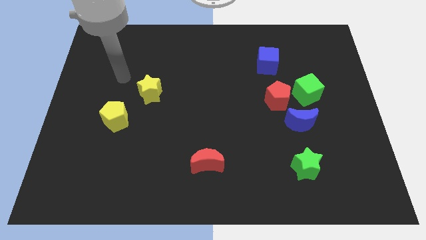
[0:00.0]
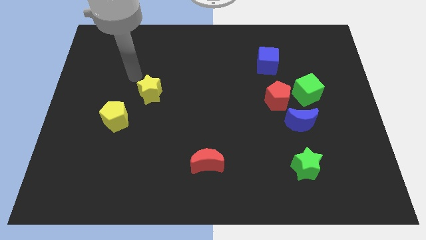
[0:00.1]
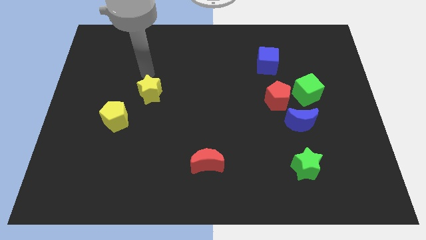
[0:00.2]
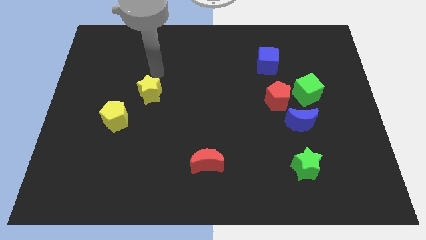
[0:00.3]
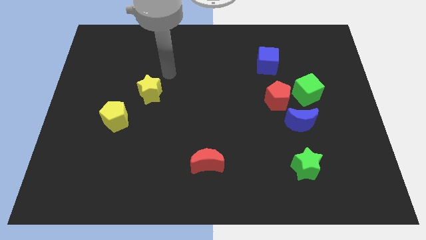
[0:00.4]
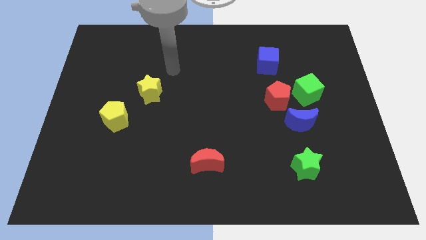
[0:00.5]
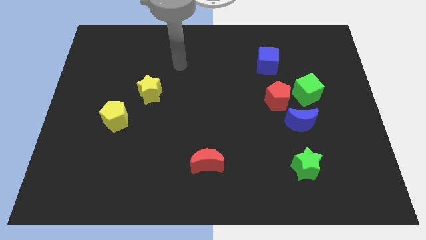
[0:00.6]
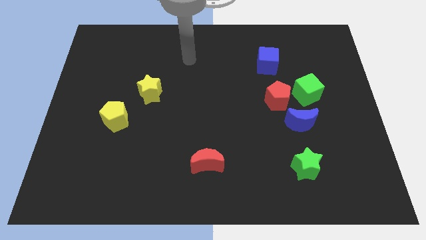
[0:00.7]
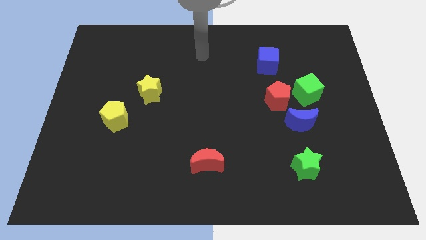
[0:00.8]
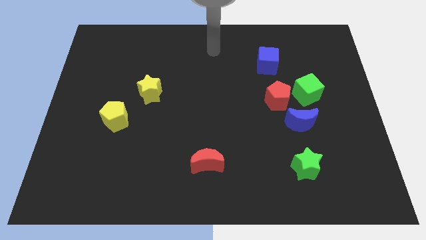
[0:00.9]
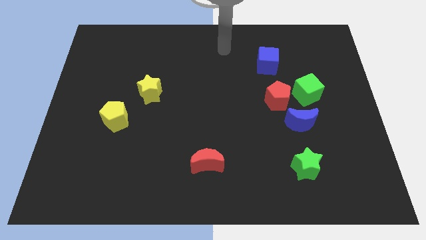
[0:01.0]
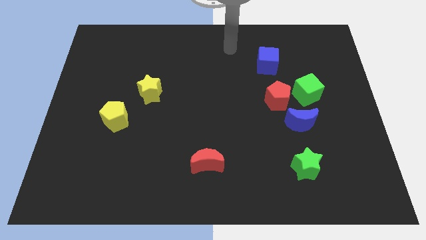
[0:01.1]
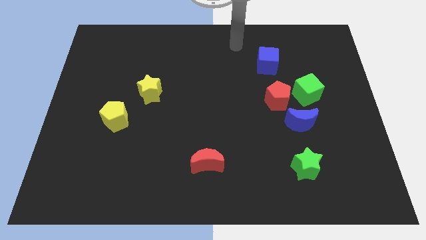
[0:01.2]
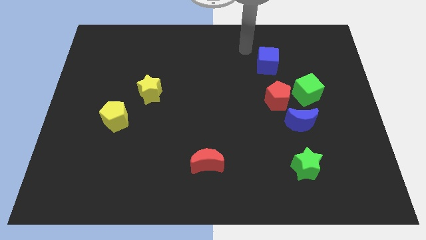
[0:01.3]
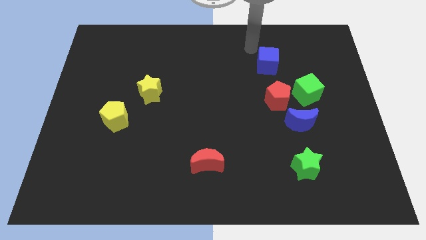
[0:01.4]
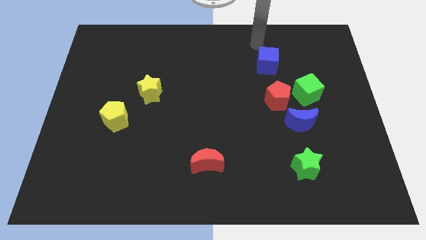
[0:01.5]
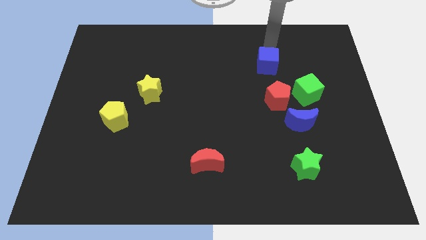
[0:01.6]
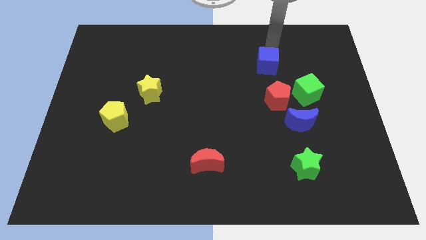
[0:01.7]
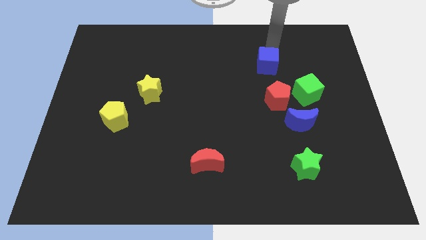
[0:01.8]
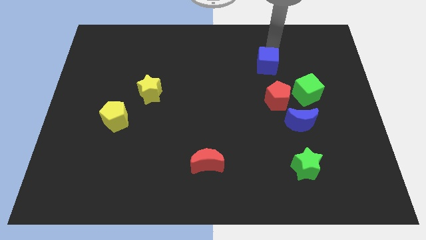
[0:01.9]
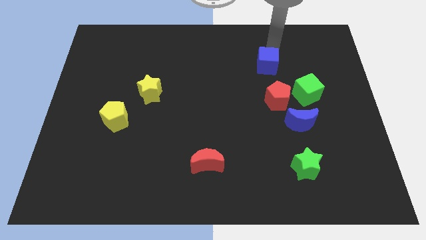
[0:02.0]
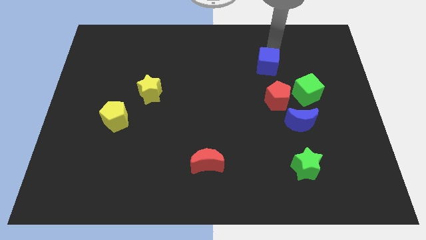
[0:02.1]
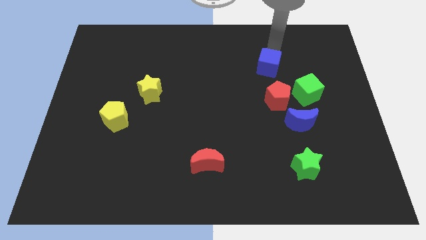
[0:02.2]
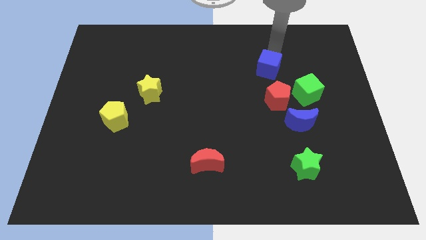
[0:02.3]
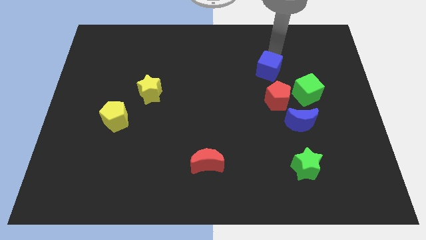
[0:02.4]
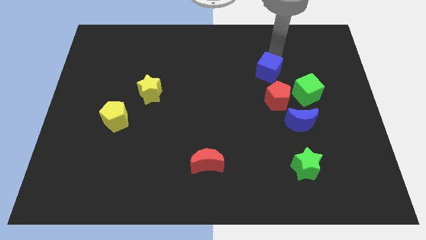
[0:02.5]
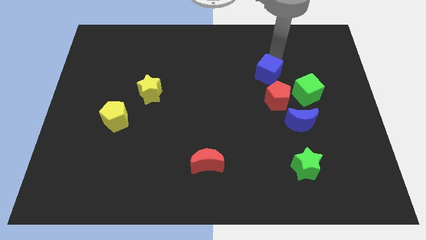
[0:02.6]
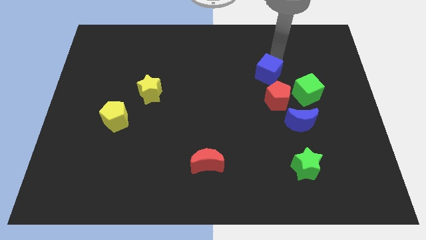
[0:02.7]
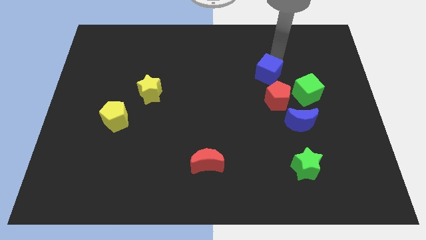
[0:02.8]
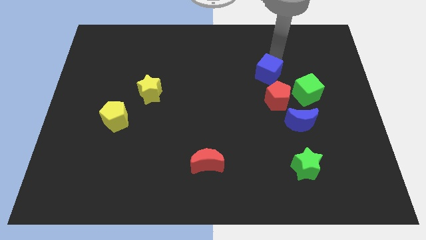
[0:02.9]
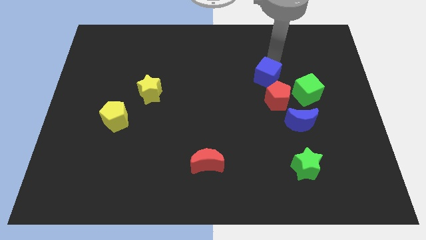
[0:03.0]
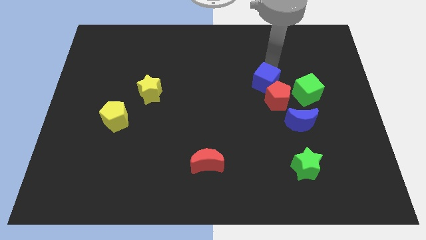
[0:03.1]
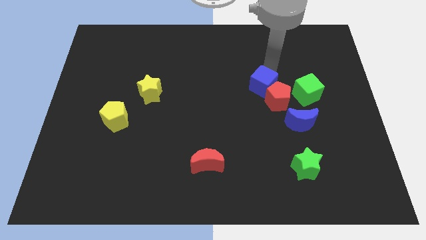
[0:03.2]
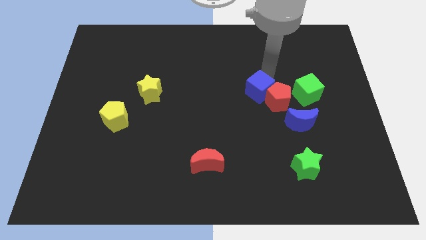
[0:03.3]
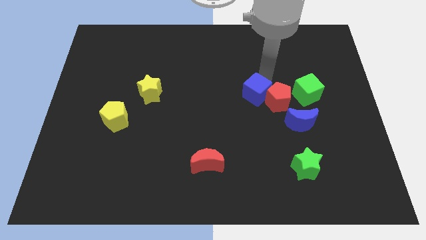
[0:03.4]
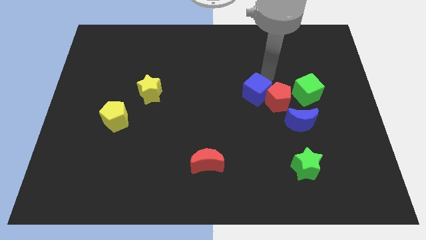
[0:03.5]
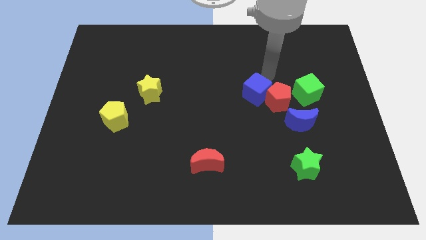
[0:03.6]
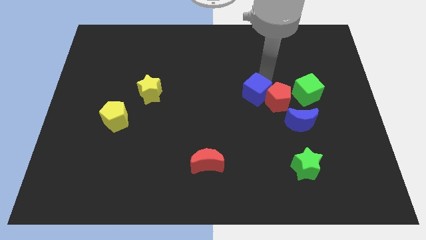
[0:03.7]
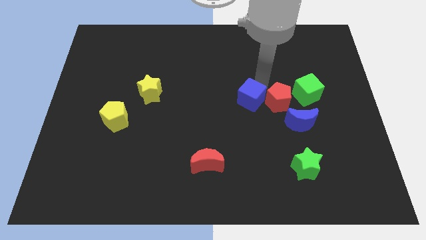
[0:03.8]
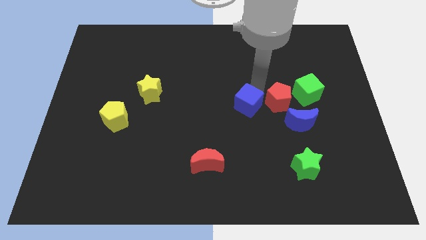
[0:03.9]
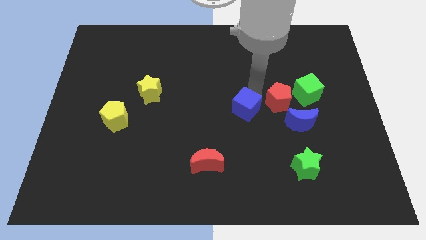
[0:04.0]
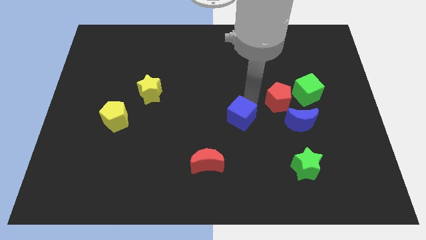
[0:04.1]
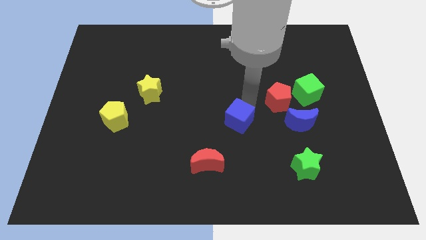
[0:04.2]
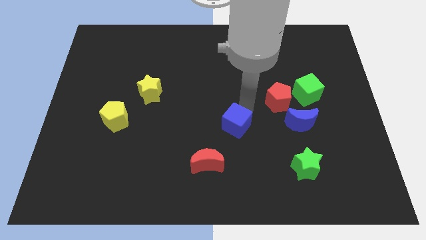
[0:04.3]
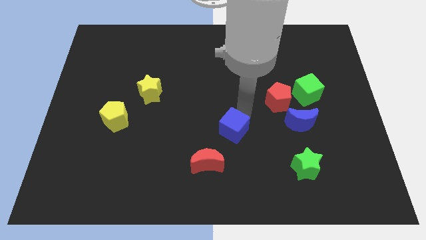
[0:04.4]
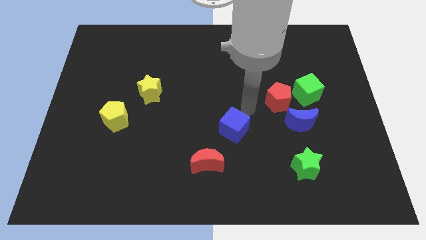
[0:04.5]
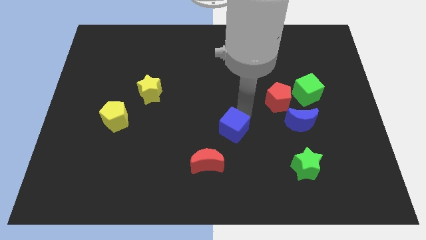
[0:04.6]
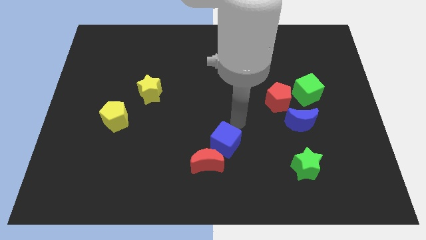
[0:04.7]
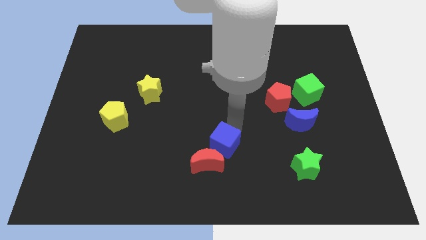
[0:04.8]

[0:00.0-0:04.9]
push the blue cube towards the red moon

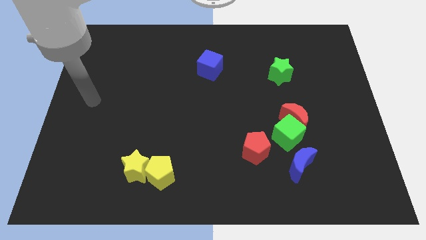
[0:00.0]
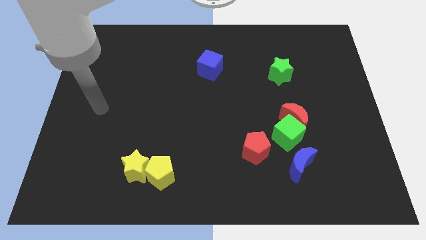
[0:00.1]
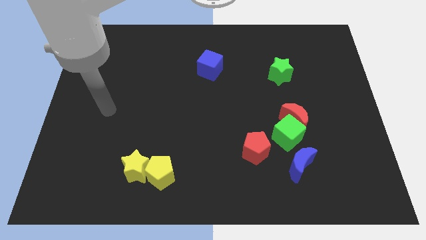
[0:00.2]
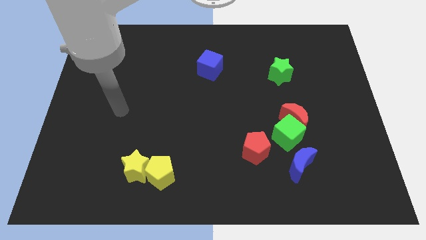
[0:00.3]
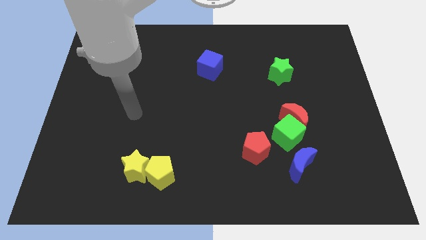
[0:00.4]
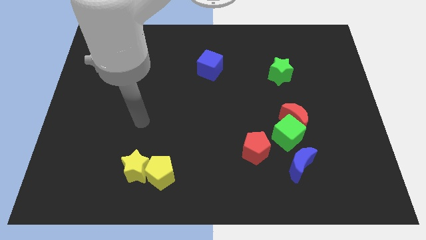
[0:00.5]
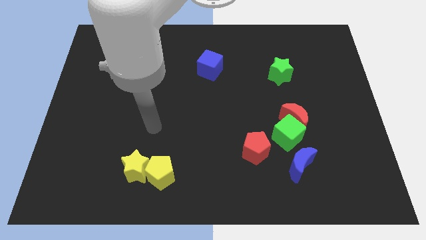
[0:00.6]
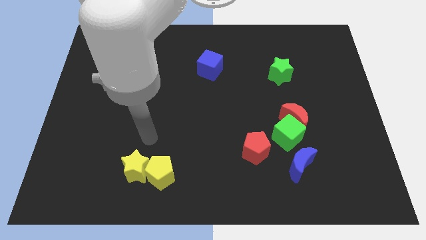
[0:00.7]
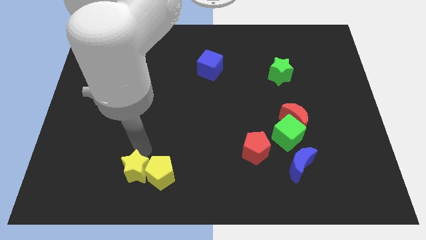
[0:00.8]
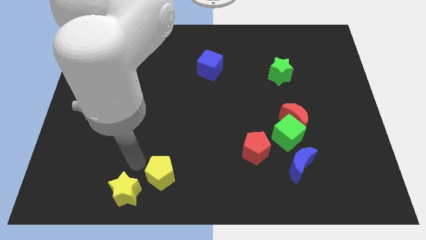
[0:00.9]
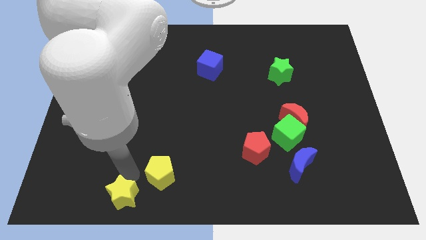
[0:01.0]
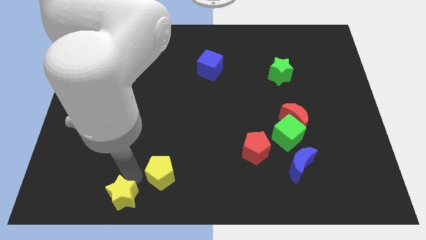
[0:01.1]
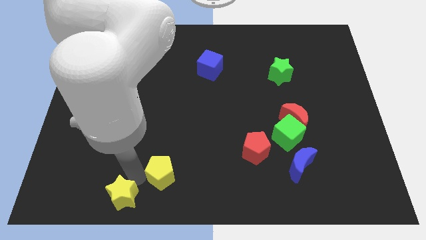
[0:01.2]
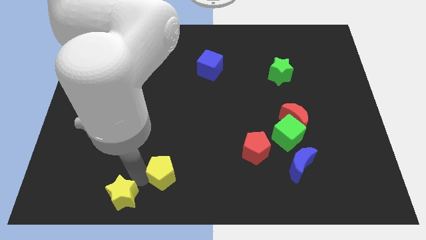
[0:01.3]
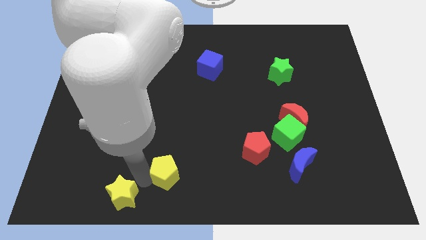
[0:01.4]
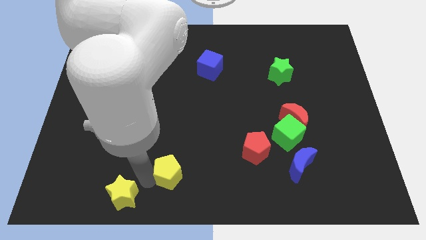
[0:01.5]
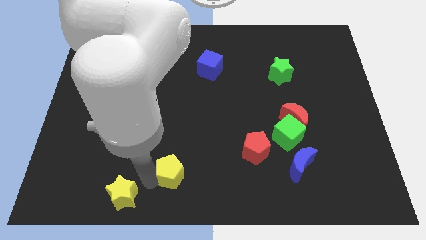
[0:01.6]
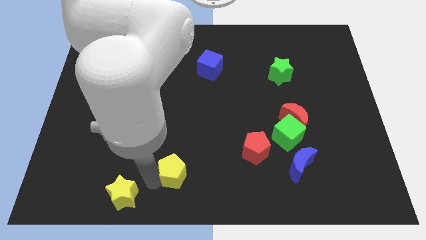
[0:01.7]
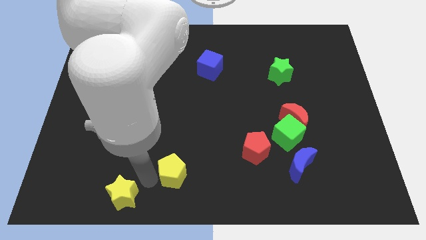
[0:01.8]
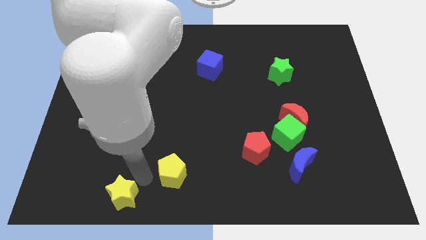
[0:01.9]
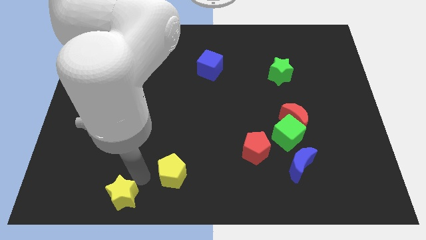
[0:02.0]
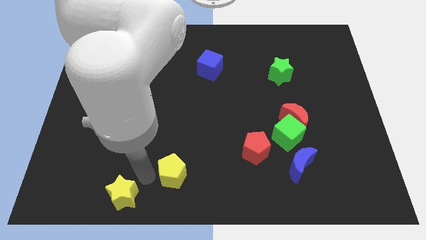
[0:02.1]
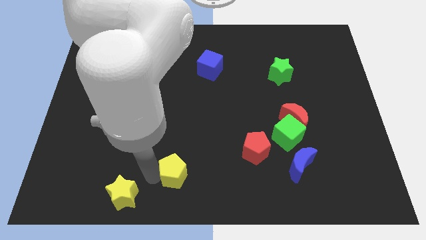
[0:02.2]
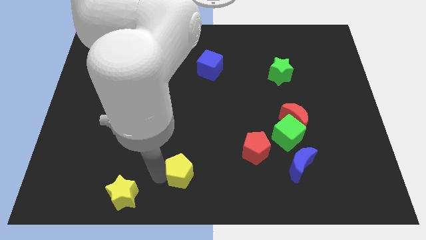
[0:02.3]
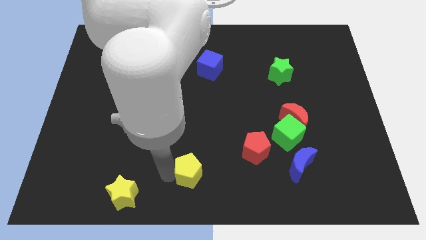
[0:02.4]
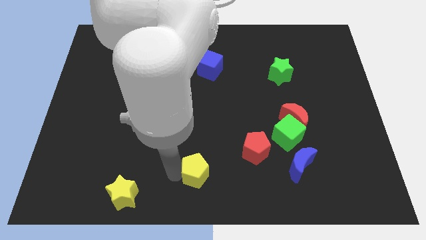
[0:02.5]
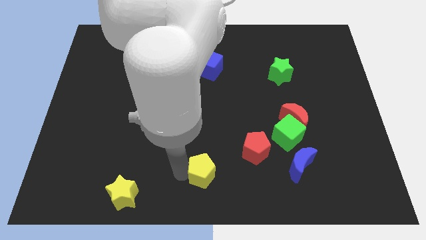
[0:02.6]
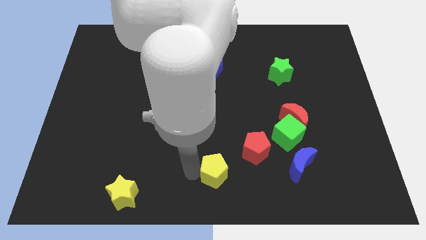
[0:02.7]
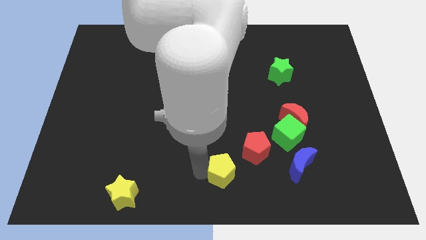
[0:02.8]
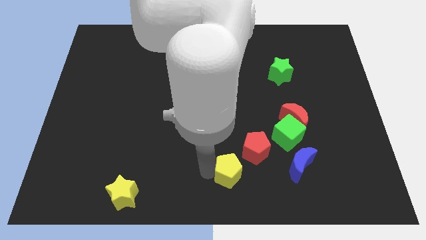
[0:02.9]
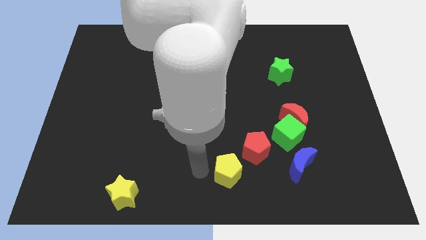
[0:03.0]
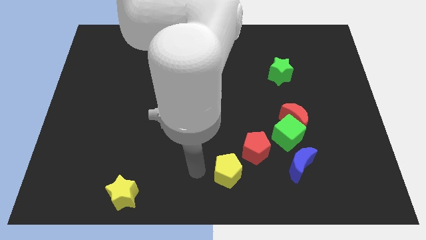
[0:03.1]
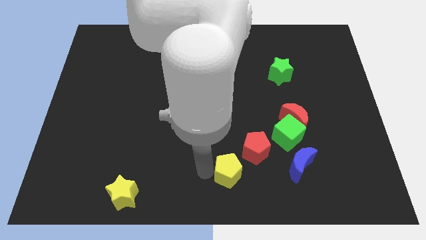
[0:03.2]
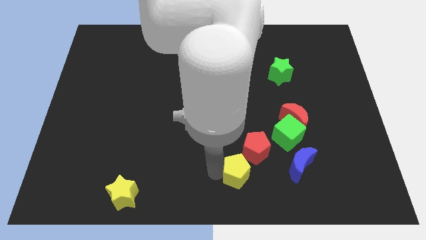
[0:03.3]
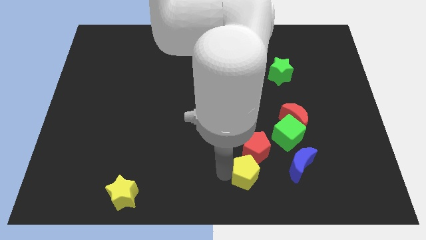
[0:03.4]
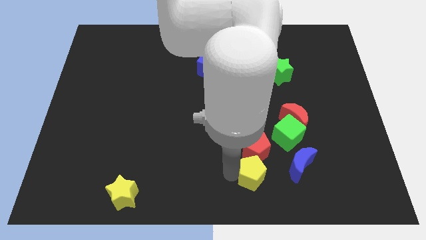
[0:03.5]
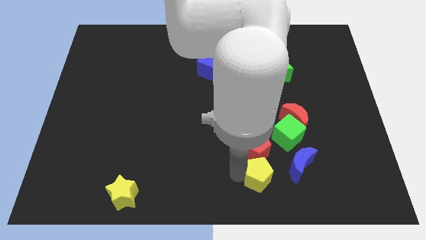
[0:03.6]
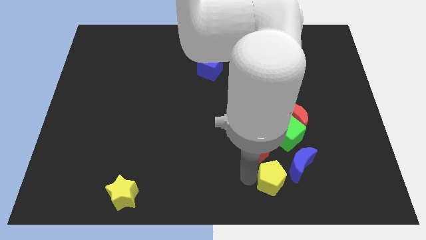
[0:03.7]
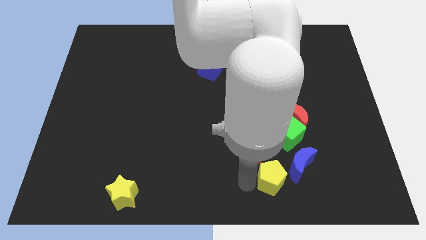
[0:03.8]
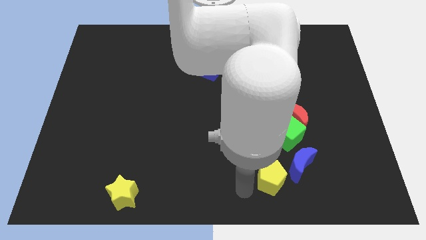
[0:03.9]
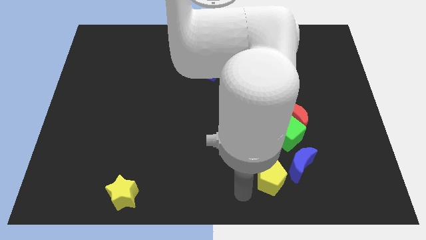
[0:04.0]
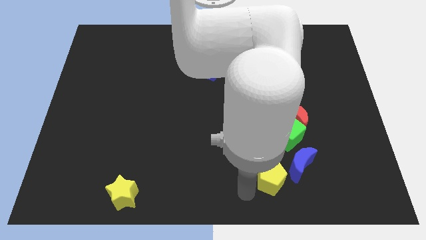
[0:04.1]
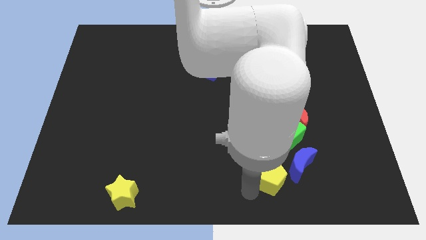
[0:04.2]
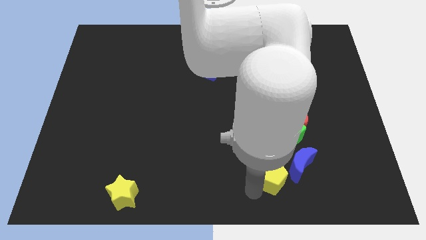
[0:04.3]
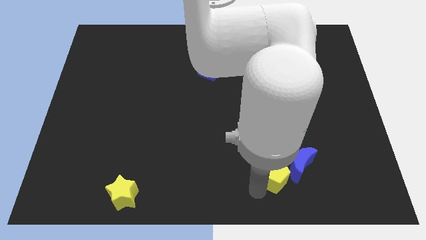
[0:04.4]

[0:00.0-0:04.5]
slide the yellow pentagon close to the blue moon
